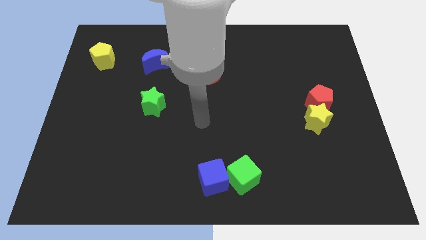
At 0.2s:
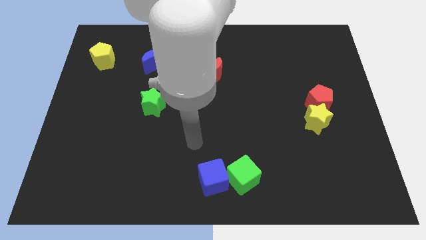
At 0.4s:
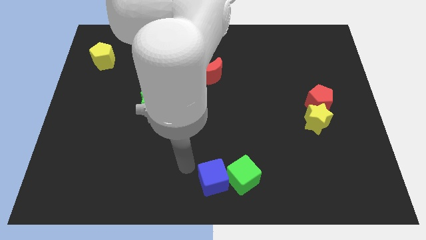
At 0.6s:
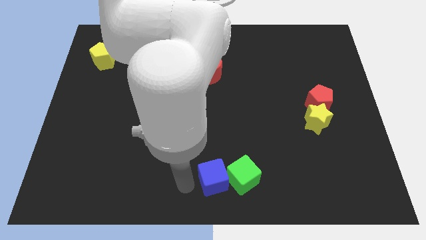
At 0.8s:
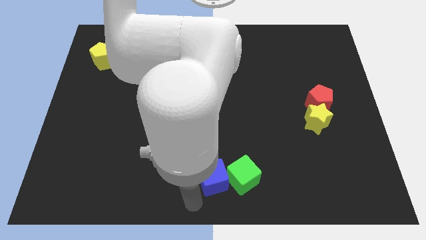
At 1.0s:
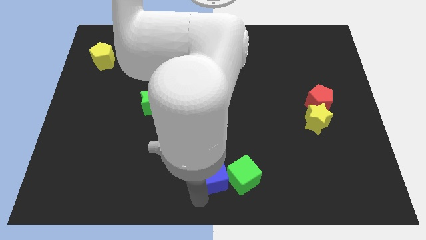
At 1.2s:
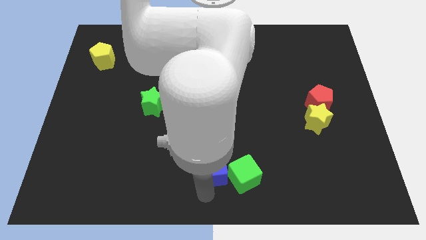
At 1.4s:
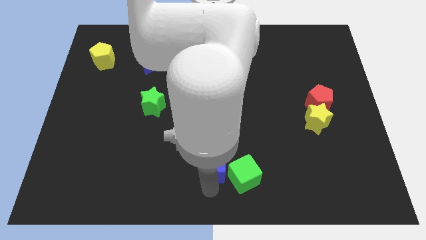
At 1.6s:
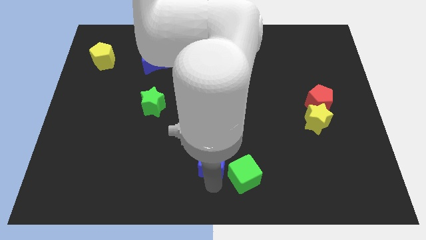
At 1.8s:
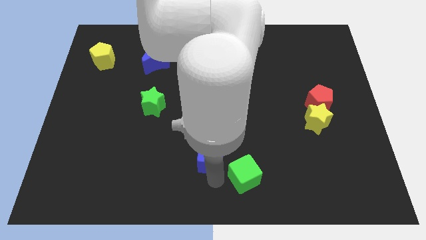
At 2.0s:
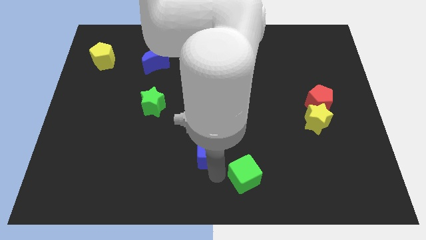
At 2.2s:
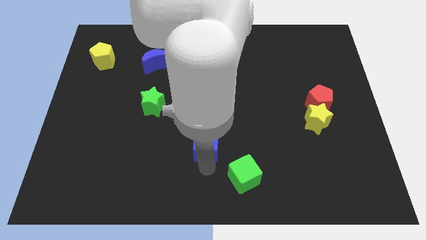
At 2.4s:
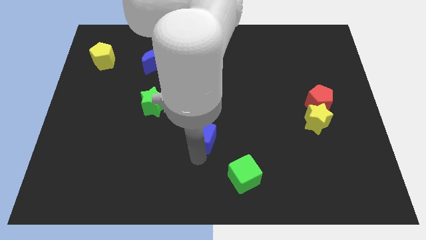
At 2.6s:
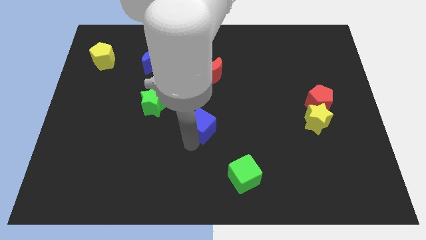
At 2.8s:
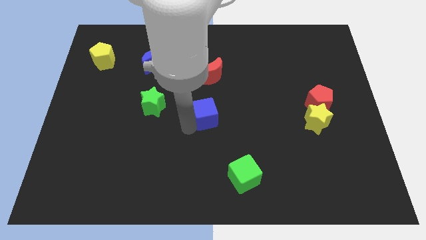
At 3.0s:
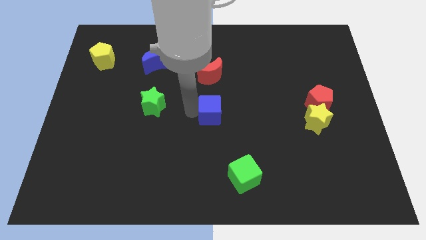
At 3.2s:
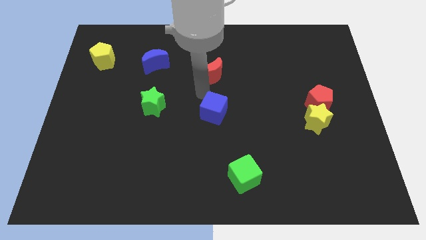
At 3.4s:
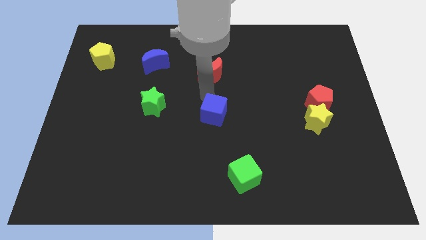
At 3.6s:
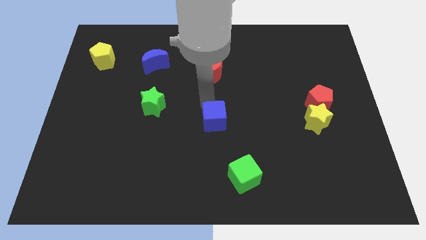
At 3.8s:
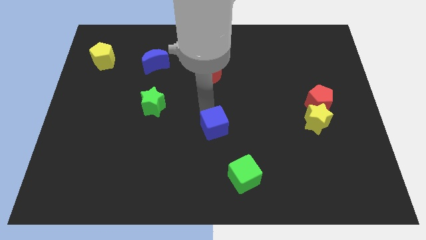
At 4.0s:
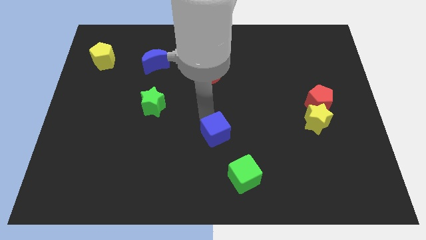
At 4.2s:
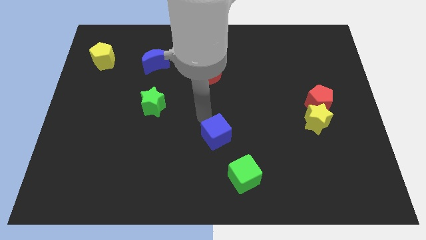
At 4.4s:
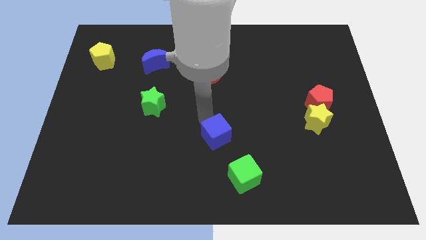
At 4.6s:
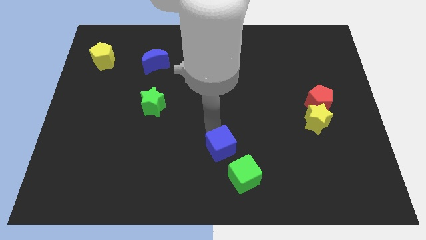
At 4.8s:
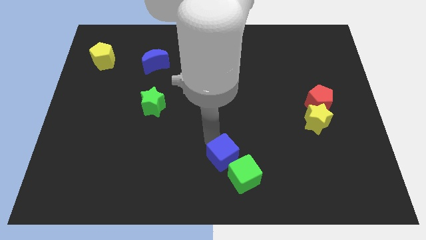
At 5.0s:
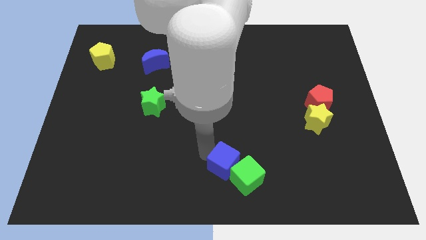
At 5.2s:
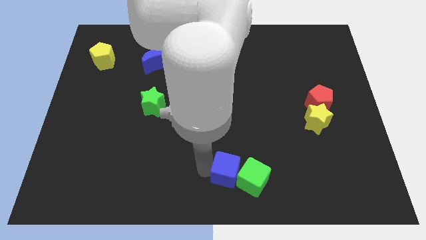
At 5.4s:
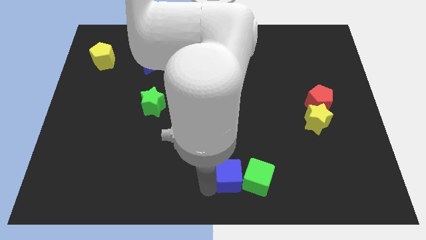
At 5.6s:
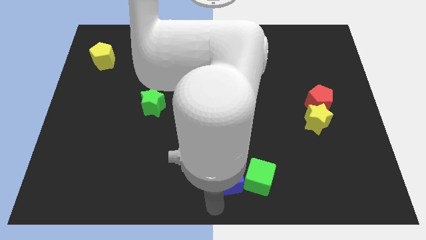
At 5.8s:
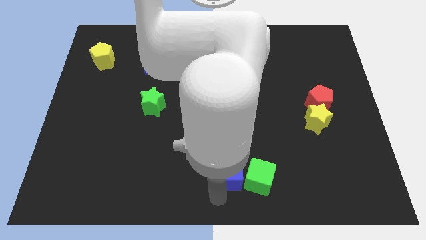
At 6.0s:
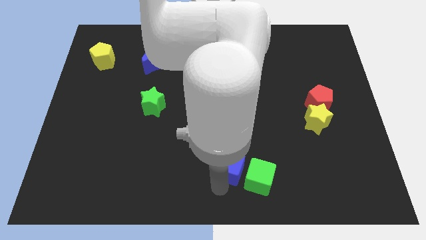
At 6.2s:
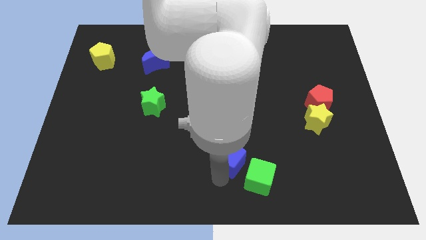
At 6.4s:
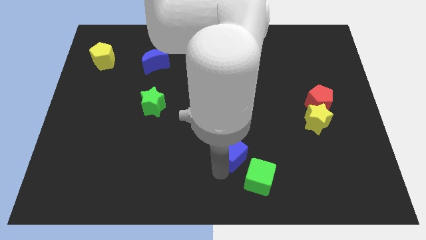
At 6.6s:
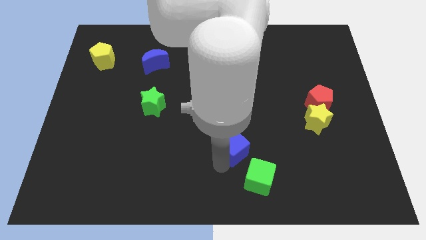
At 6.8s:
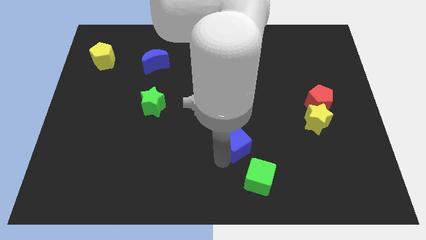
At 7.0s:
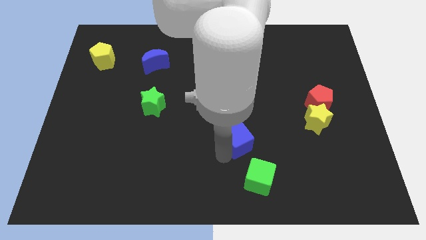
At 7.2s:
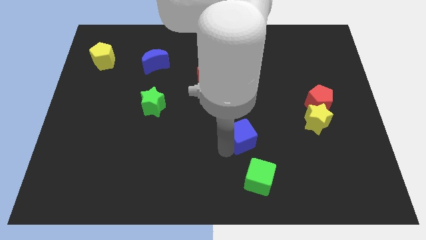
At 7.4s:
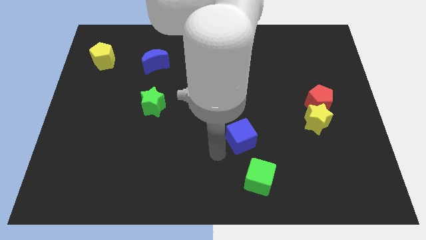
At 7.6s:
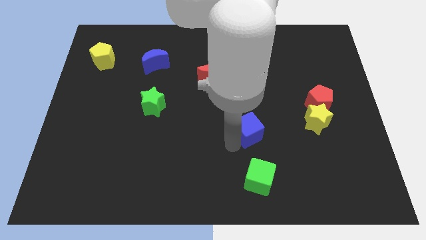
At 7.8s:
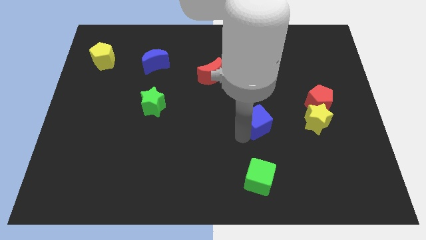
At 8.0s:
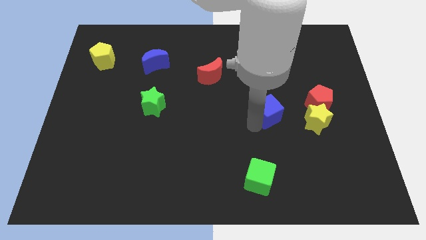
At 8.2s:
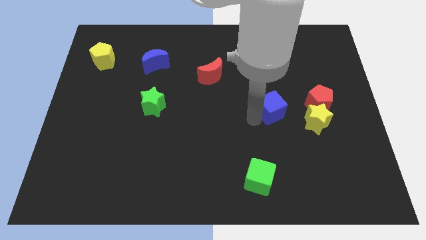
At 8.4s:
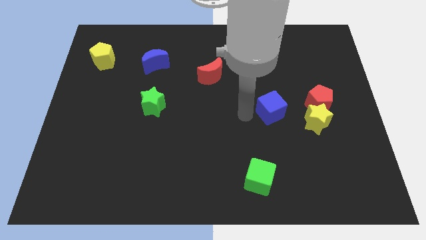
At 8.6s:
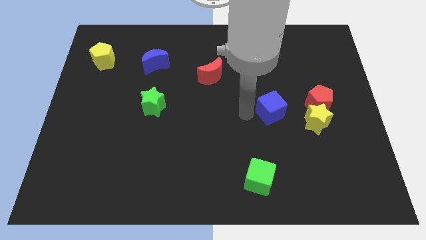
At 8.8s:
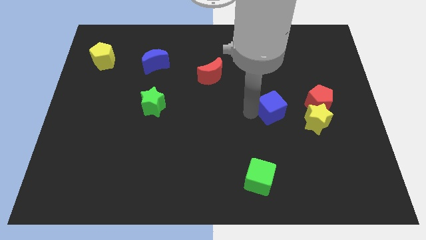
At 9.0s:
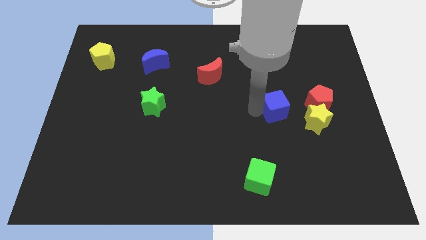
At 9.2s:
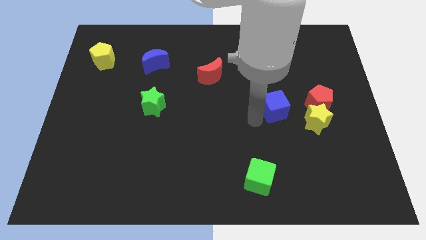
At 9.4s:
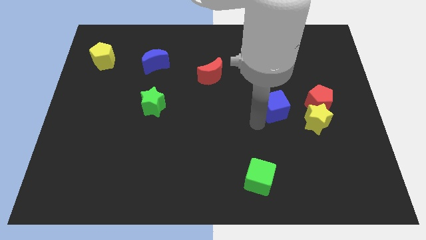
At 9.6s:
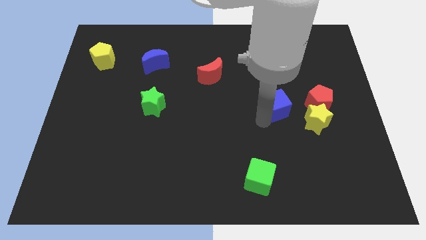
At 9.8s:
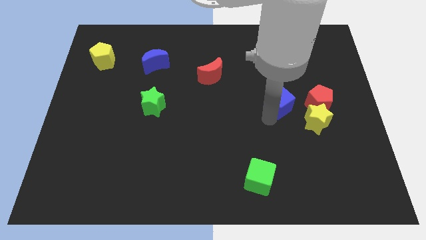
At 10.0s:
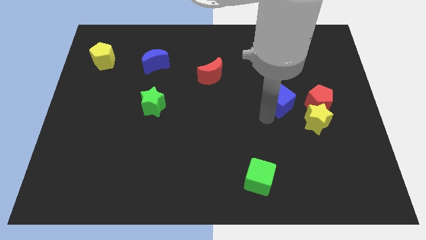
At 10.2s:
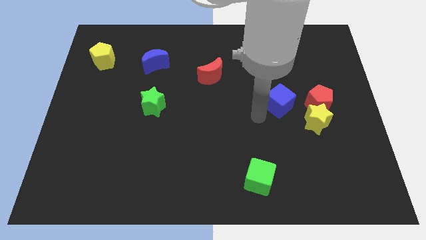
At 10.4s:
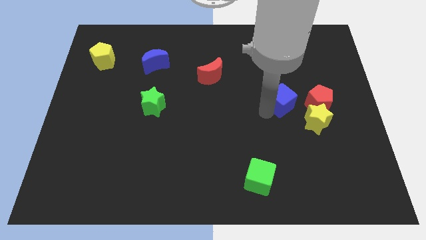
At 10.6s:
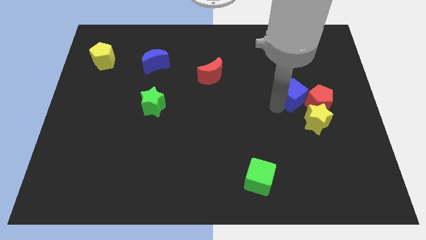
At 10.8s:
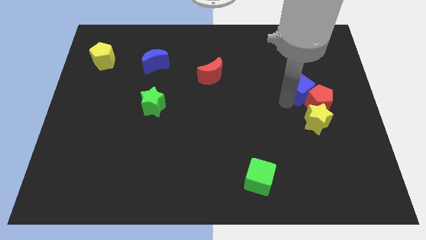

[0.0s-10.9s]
slide the blue cube to the top side of the red pentagon
